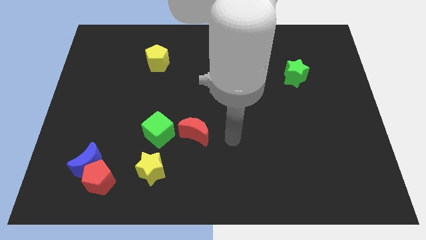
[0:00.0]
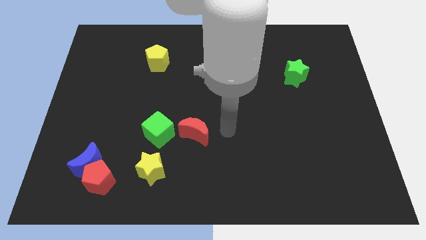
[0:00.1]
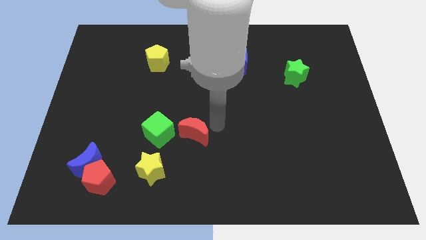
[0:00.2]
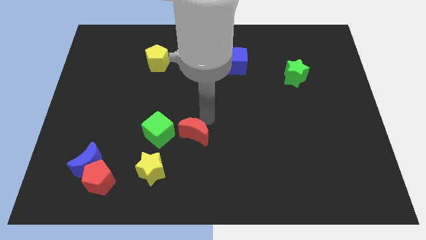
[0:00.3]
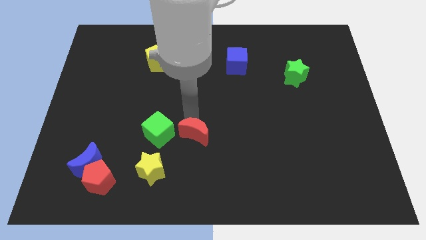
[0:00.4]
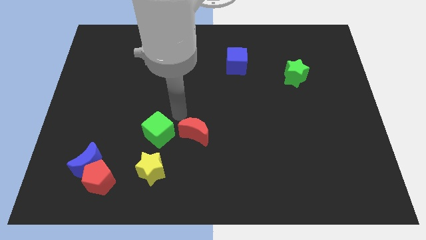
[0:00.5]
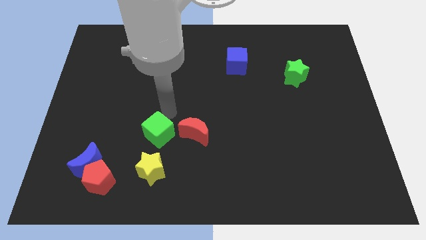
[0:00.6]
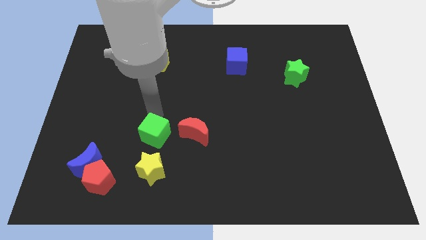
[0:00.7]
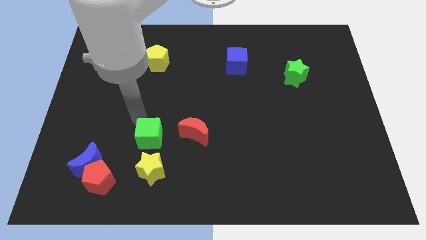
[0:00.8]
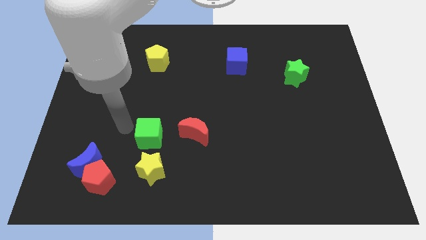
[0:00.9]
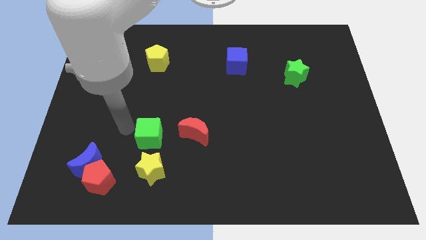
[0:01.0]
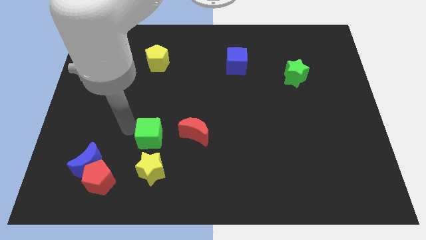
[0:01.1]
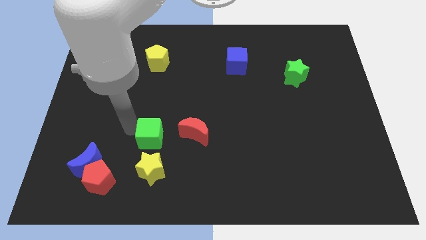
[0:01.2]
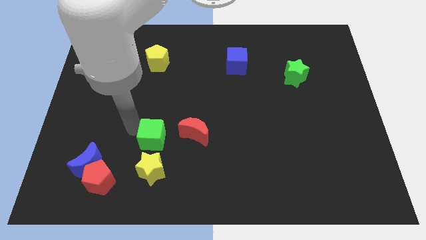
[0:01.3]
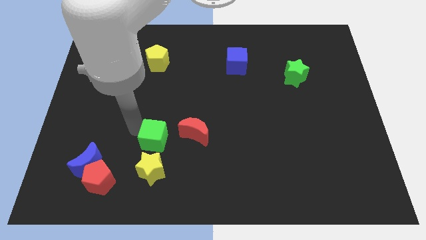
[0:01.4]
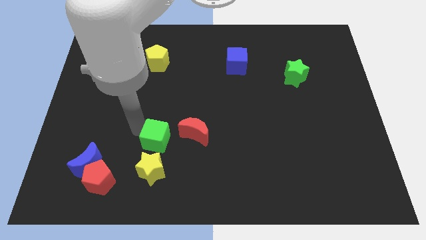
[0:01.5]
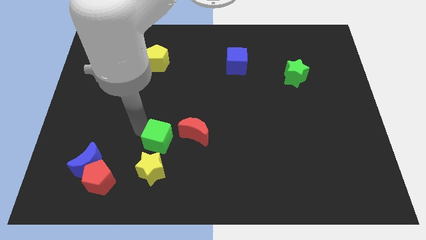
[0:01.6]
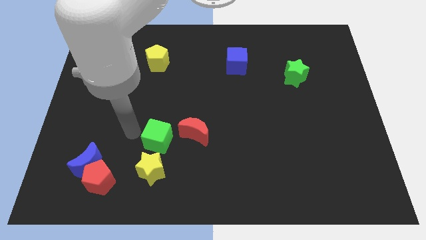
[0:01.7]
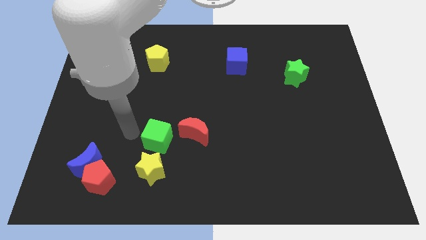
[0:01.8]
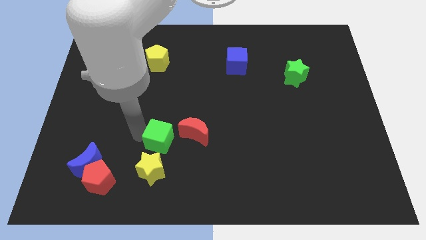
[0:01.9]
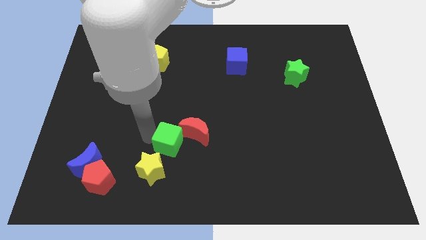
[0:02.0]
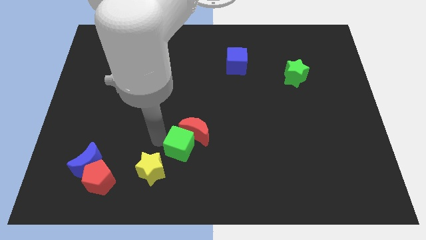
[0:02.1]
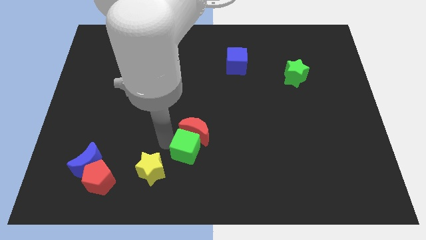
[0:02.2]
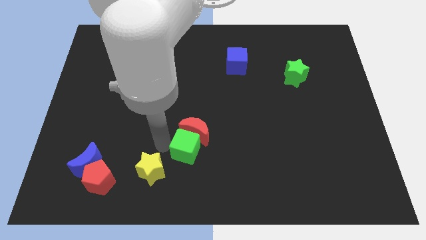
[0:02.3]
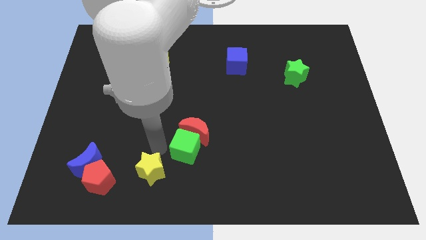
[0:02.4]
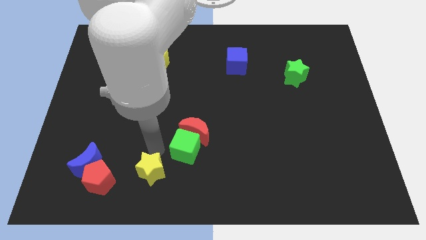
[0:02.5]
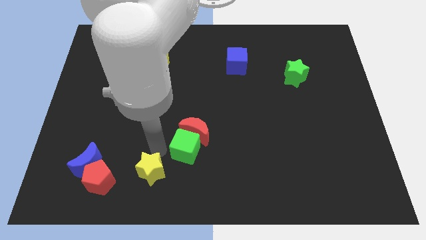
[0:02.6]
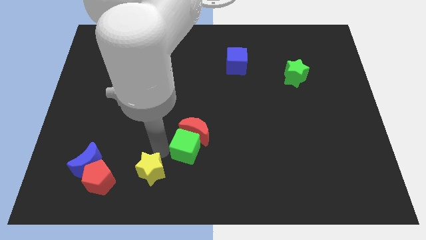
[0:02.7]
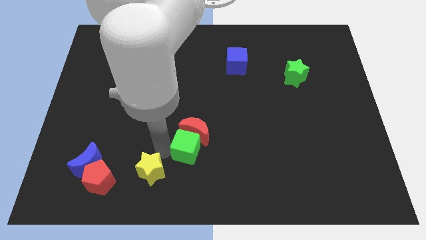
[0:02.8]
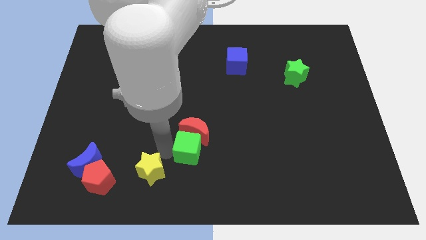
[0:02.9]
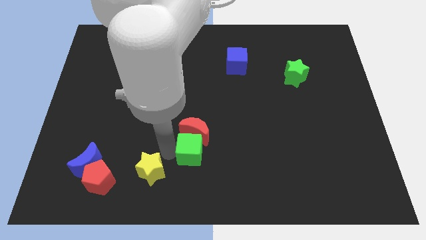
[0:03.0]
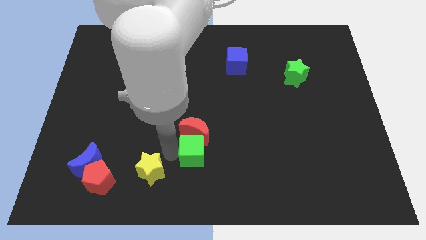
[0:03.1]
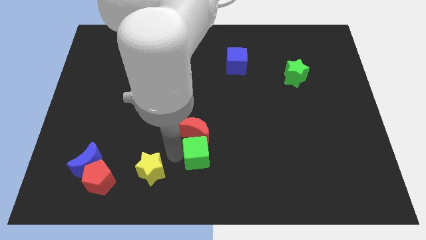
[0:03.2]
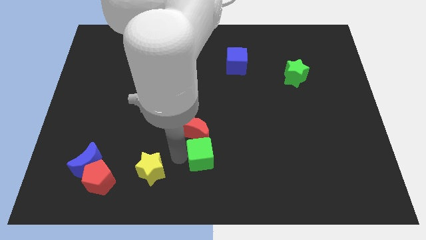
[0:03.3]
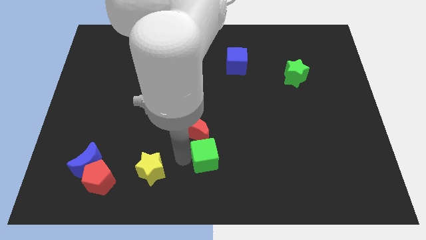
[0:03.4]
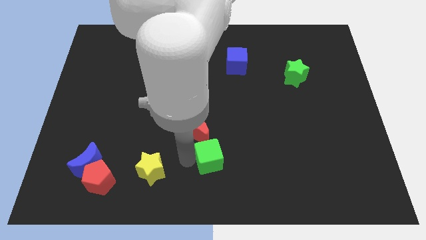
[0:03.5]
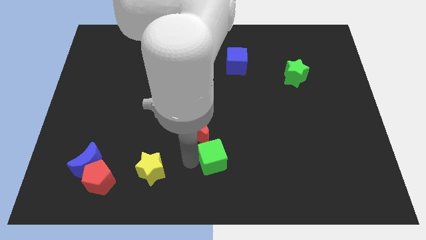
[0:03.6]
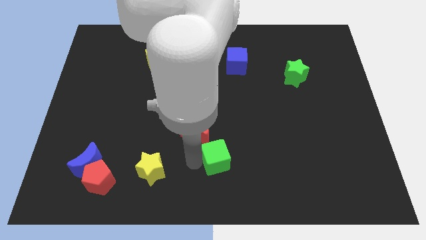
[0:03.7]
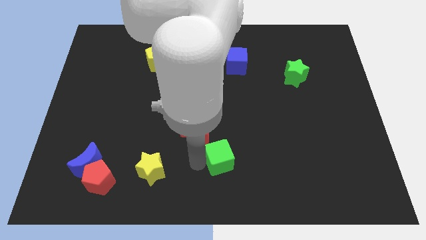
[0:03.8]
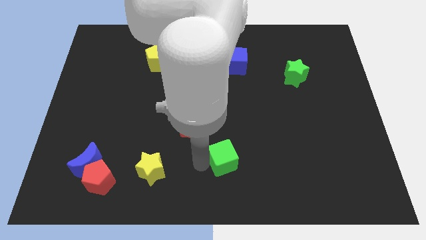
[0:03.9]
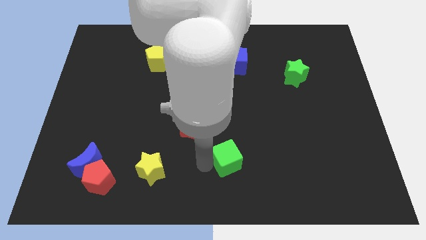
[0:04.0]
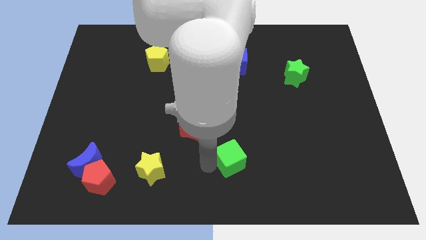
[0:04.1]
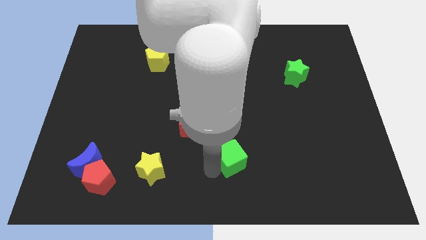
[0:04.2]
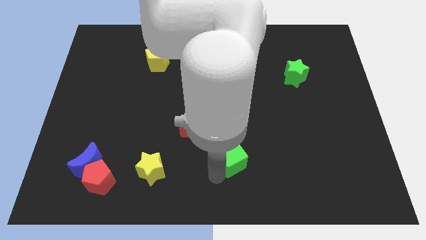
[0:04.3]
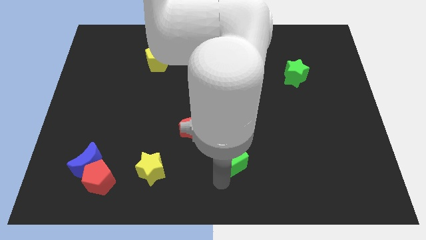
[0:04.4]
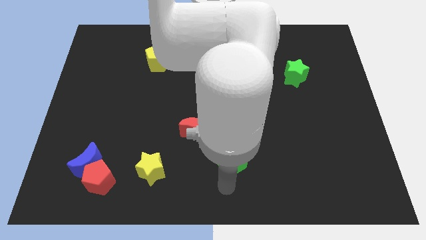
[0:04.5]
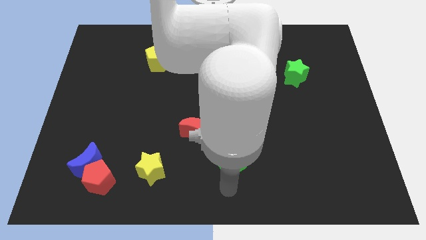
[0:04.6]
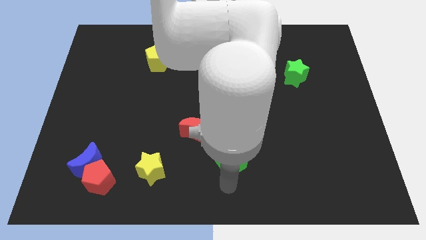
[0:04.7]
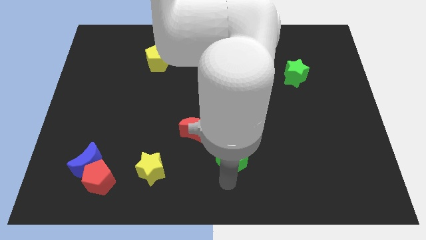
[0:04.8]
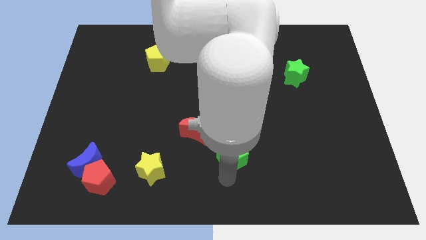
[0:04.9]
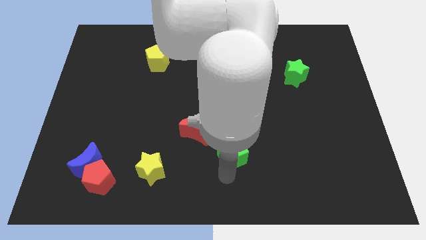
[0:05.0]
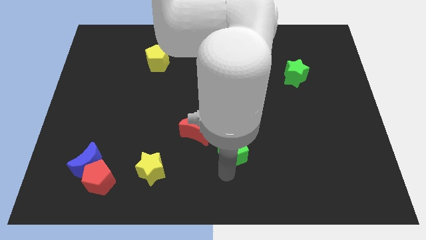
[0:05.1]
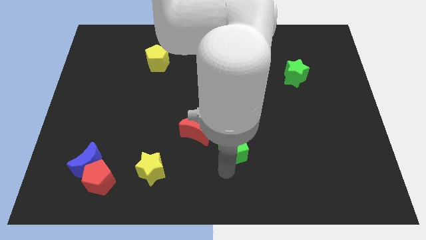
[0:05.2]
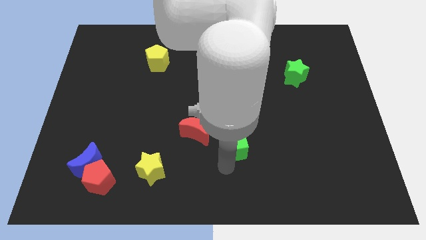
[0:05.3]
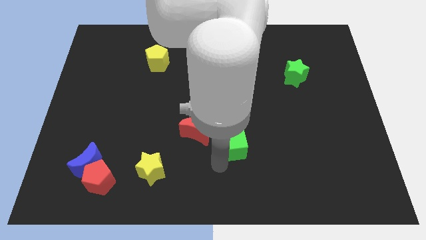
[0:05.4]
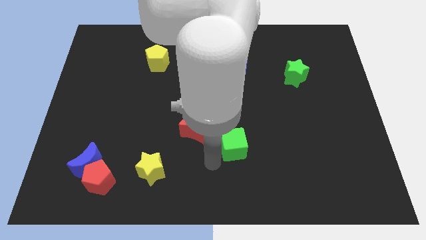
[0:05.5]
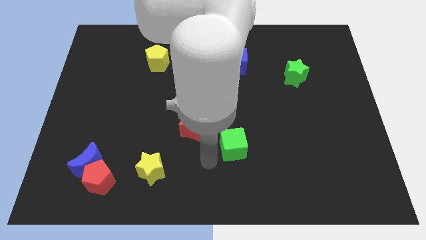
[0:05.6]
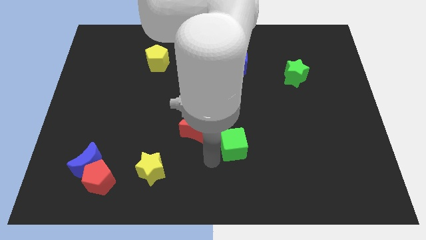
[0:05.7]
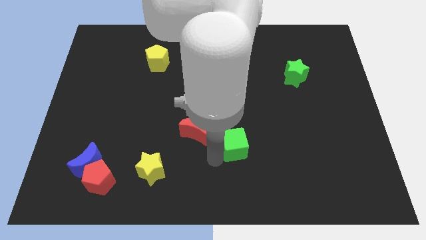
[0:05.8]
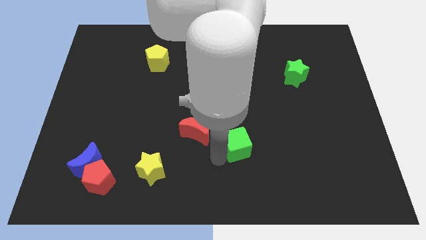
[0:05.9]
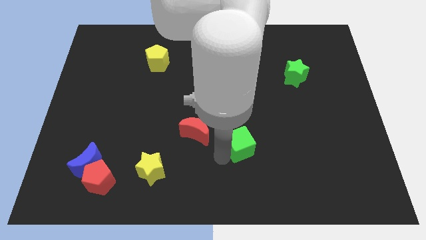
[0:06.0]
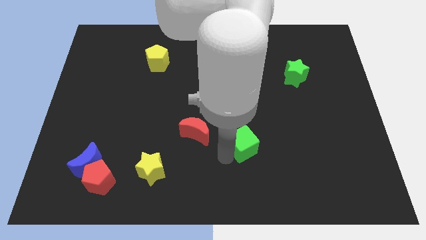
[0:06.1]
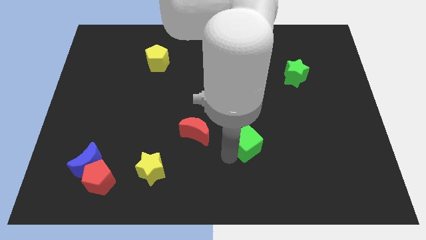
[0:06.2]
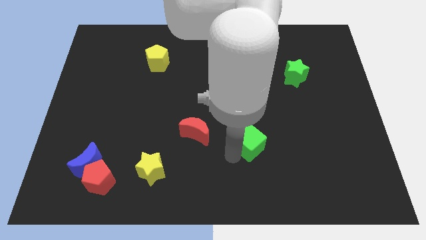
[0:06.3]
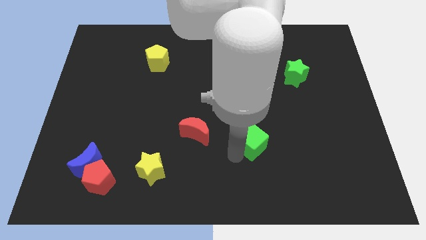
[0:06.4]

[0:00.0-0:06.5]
push the green cube right

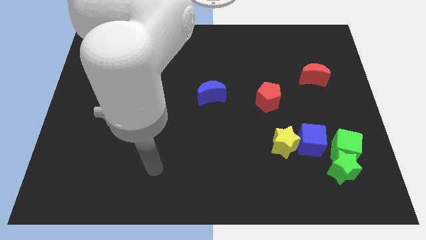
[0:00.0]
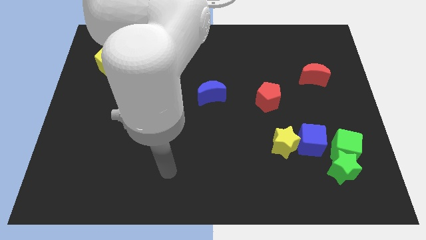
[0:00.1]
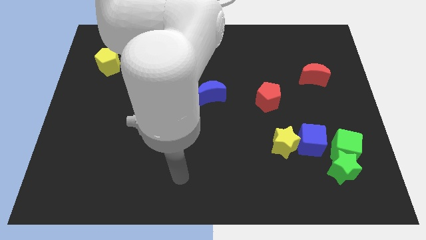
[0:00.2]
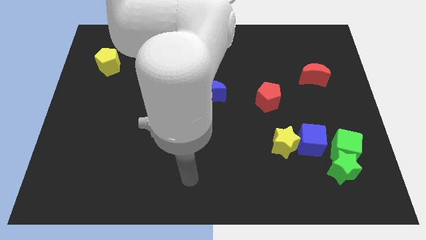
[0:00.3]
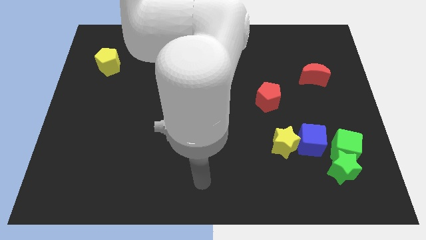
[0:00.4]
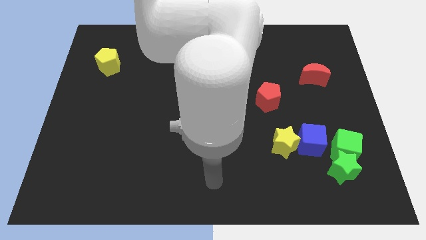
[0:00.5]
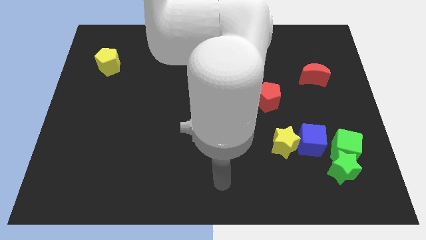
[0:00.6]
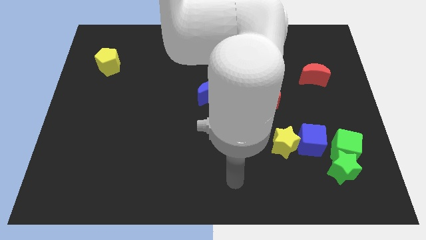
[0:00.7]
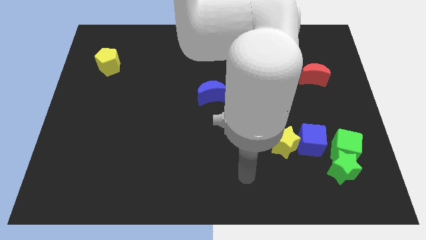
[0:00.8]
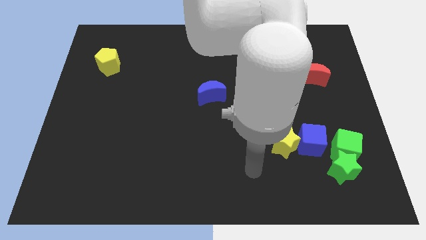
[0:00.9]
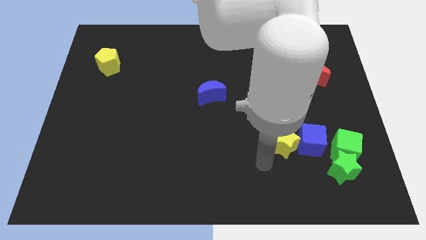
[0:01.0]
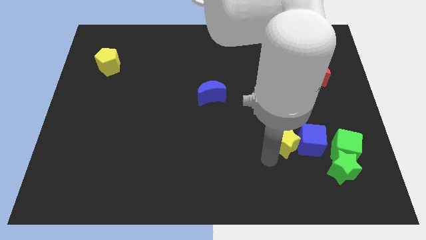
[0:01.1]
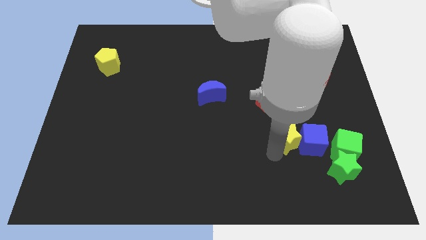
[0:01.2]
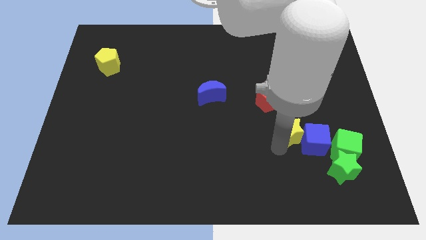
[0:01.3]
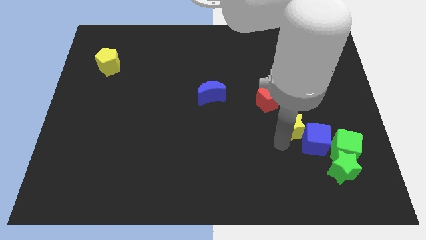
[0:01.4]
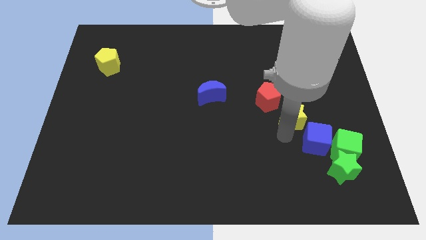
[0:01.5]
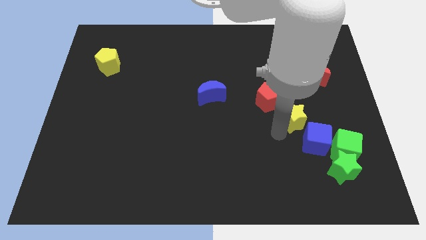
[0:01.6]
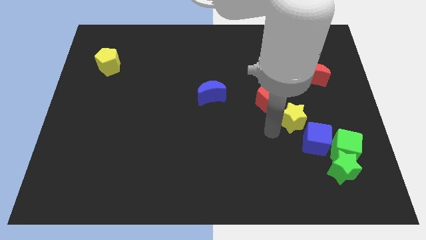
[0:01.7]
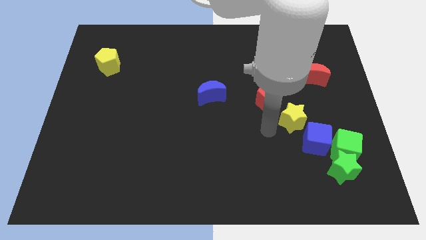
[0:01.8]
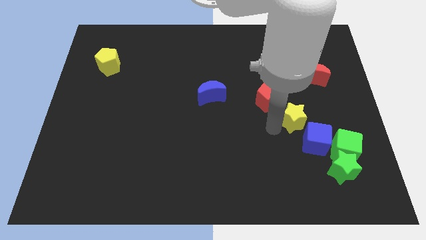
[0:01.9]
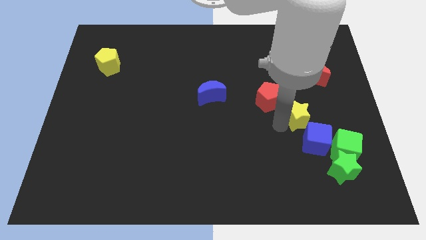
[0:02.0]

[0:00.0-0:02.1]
slide the yellow star slightly upwards and right diagonally
